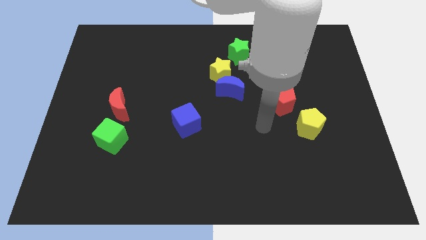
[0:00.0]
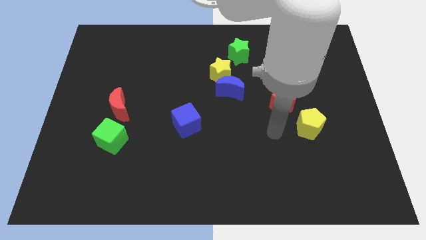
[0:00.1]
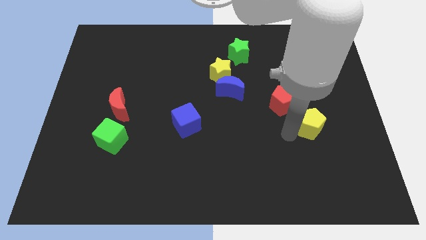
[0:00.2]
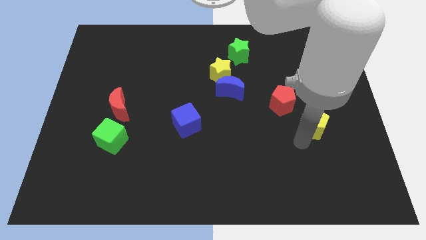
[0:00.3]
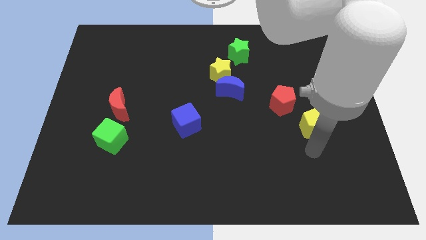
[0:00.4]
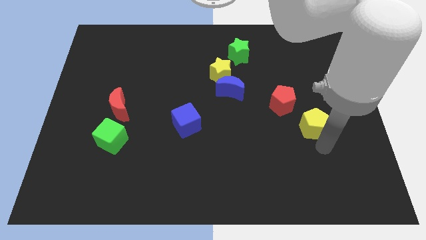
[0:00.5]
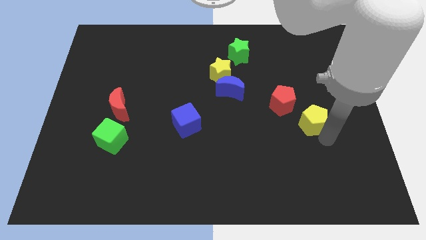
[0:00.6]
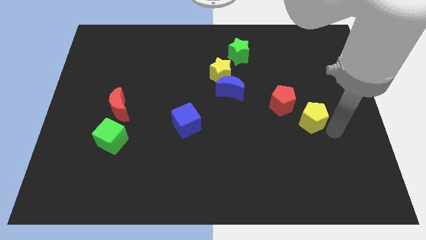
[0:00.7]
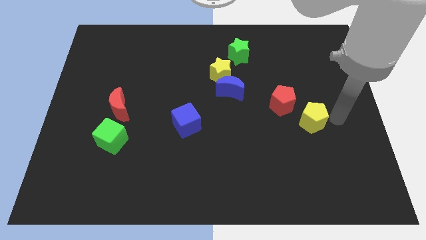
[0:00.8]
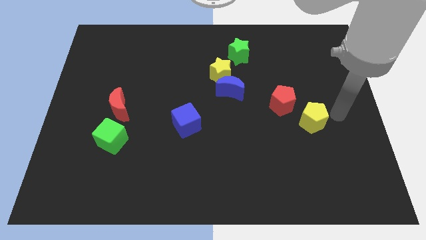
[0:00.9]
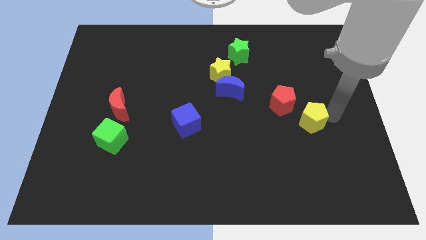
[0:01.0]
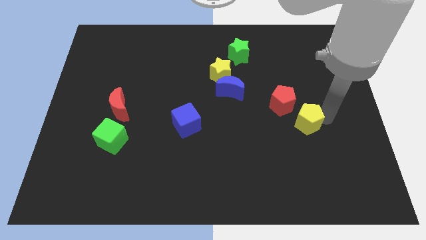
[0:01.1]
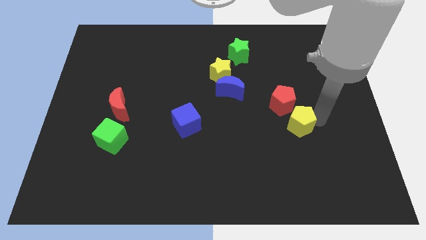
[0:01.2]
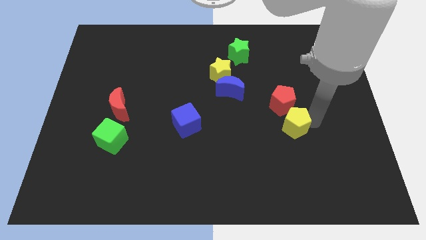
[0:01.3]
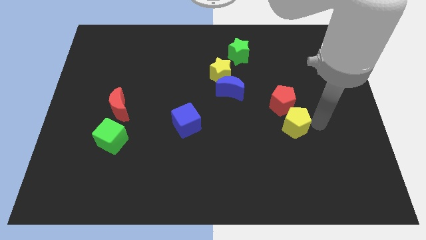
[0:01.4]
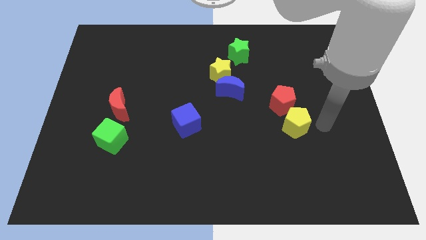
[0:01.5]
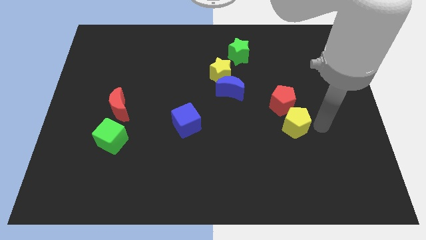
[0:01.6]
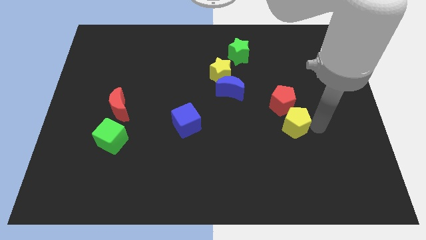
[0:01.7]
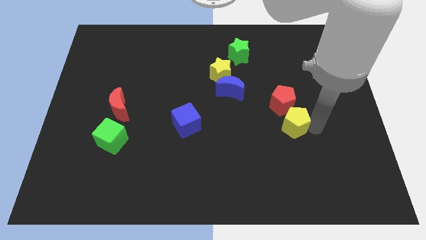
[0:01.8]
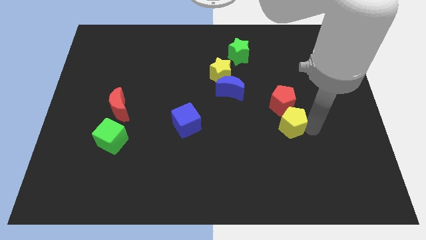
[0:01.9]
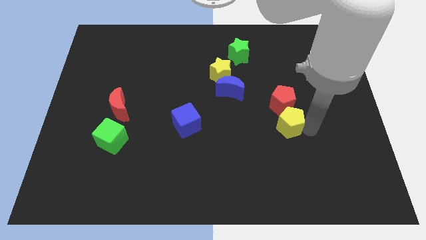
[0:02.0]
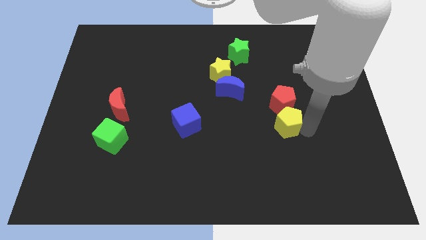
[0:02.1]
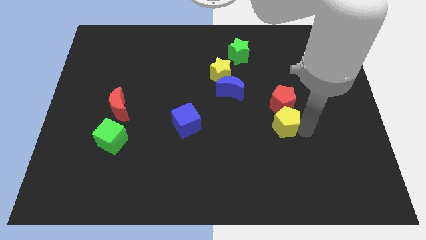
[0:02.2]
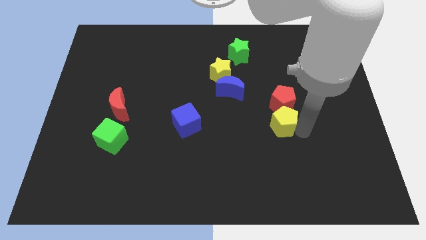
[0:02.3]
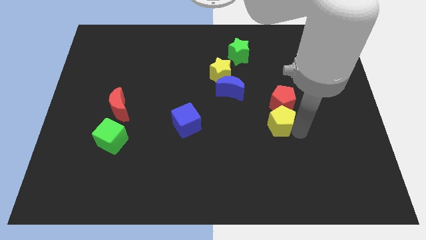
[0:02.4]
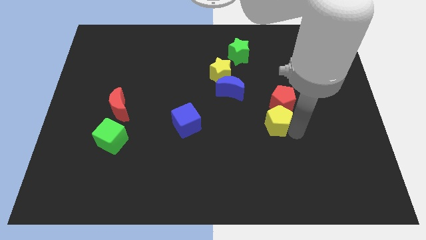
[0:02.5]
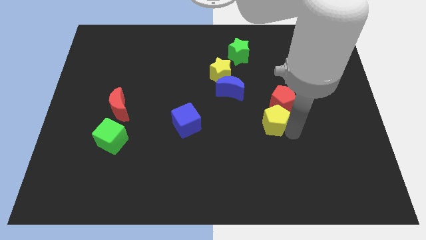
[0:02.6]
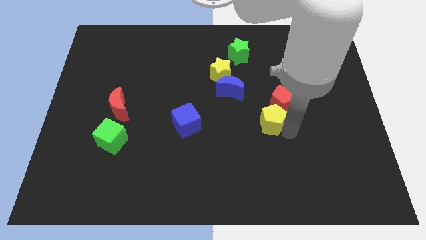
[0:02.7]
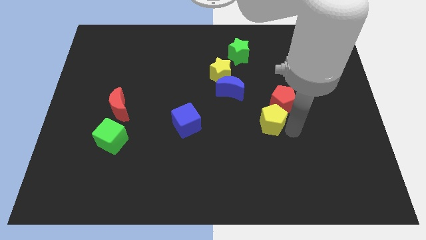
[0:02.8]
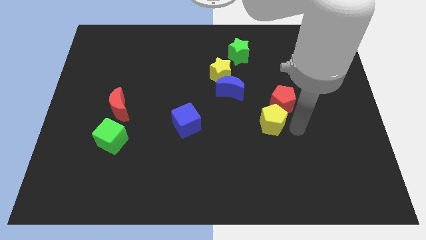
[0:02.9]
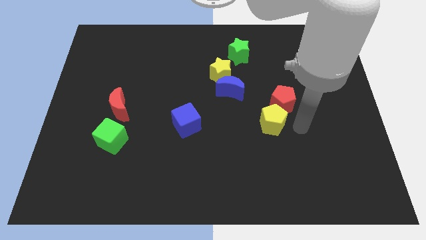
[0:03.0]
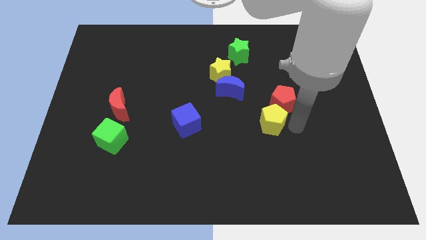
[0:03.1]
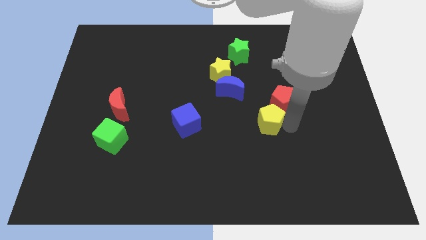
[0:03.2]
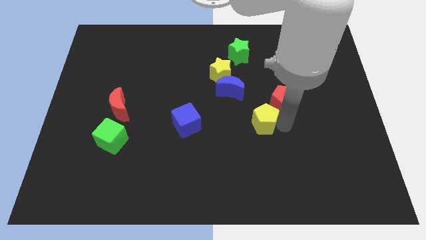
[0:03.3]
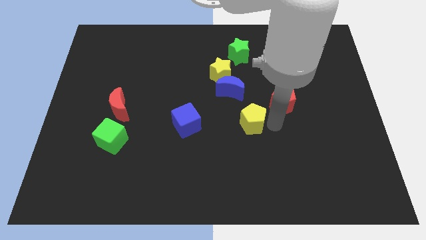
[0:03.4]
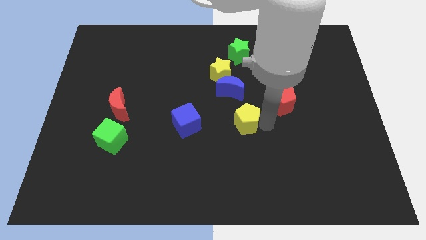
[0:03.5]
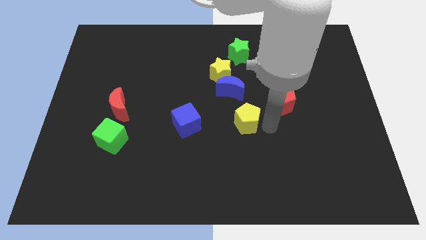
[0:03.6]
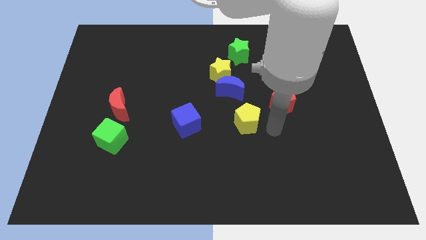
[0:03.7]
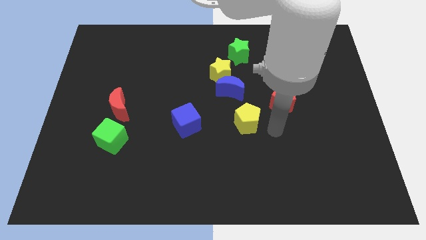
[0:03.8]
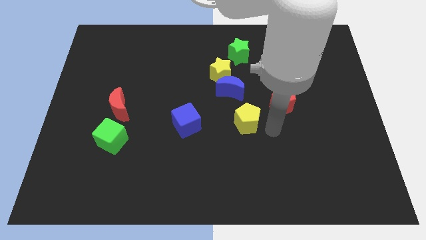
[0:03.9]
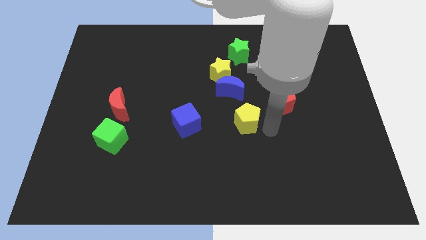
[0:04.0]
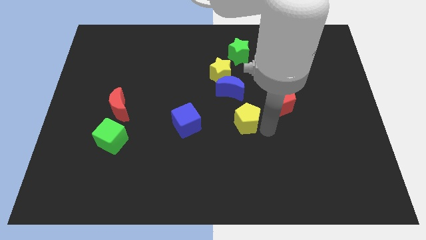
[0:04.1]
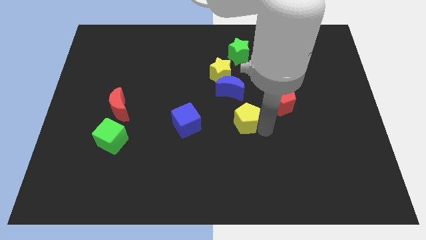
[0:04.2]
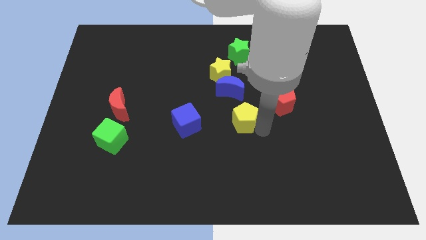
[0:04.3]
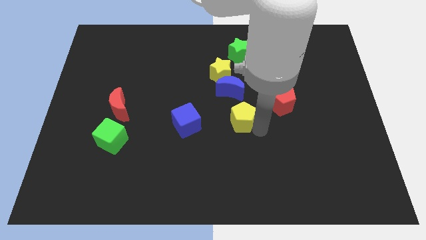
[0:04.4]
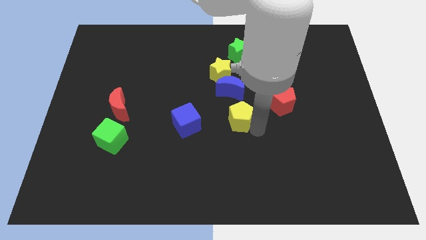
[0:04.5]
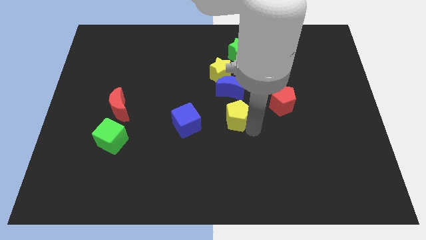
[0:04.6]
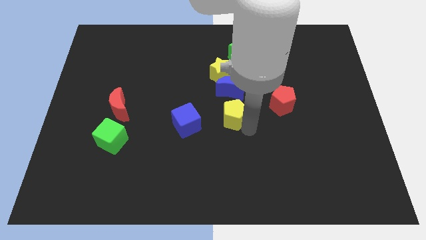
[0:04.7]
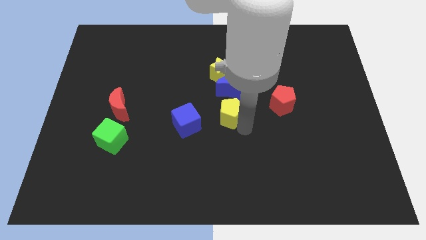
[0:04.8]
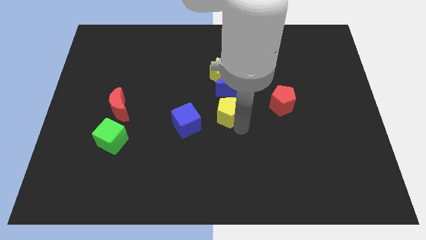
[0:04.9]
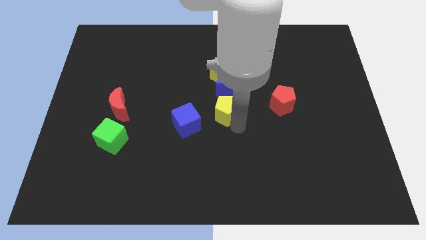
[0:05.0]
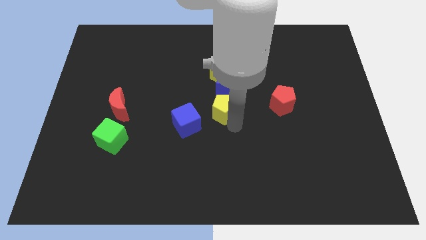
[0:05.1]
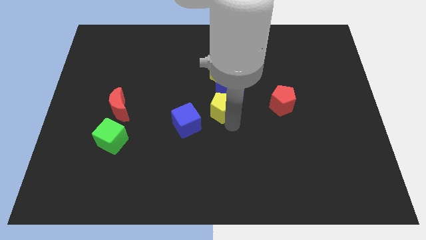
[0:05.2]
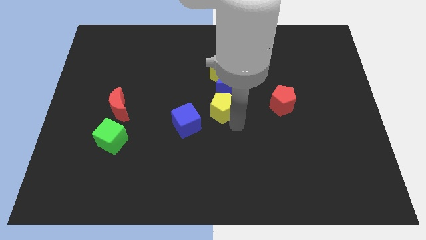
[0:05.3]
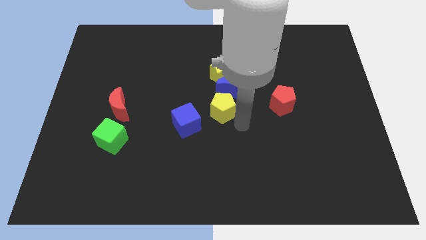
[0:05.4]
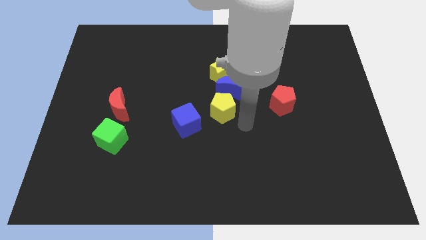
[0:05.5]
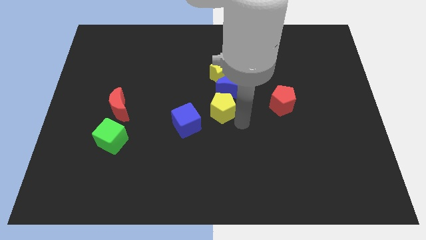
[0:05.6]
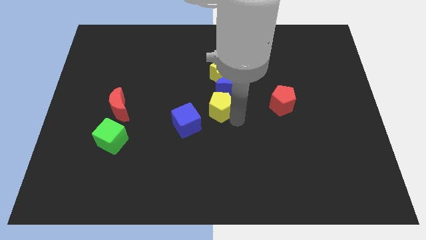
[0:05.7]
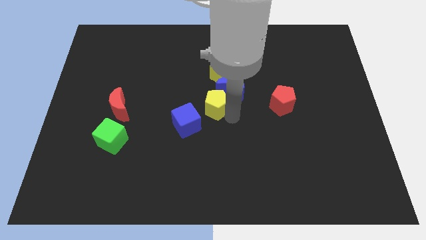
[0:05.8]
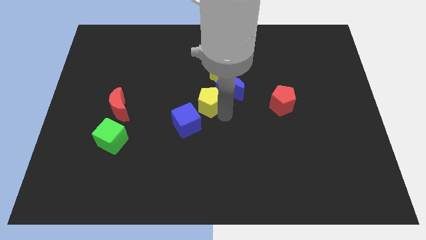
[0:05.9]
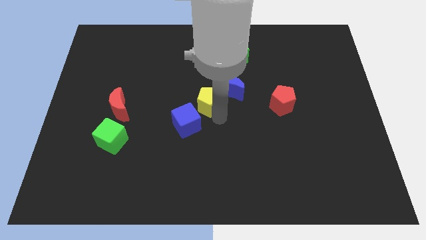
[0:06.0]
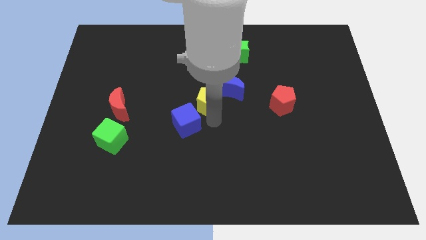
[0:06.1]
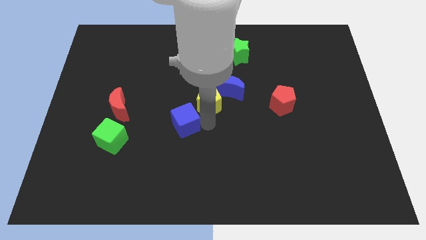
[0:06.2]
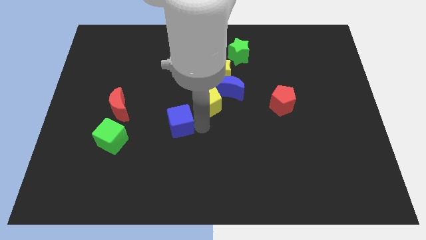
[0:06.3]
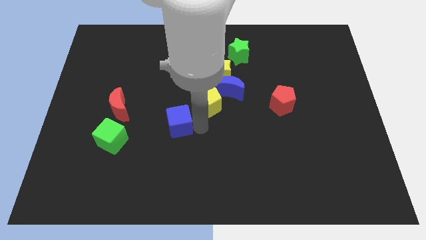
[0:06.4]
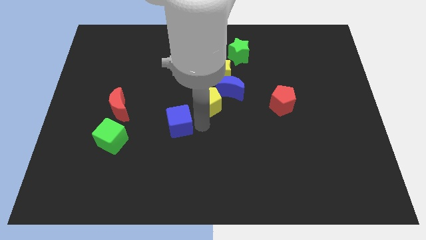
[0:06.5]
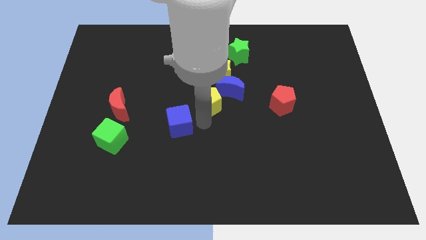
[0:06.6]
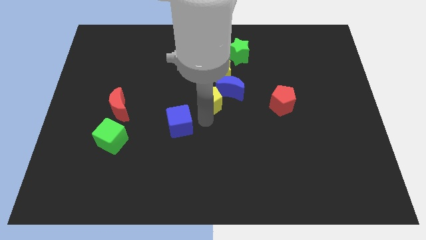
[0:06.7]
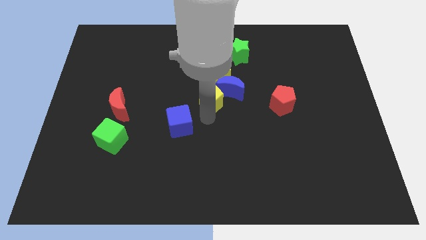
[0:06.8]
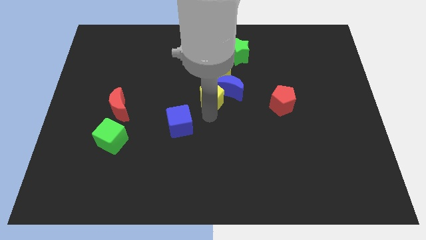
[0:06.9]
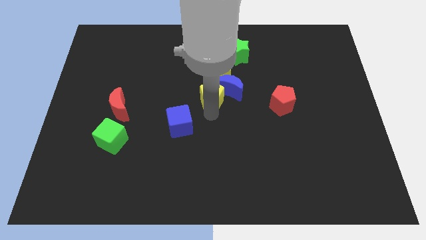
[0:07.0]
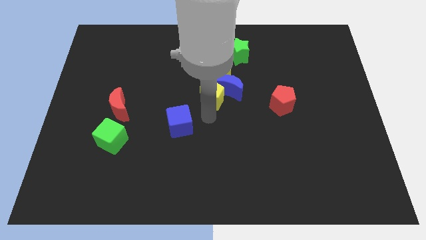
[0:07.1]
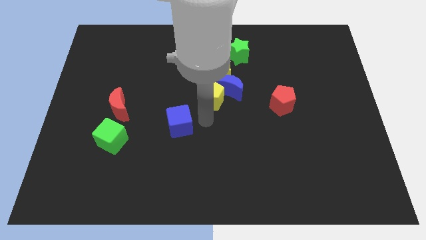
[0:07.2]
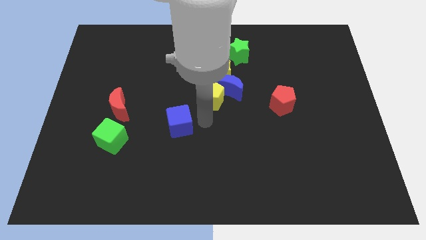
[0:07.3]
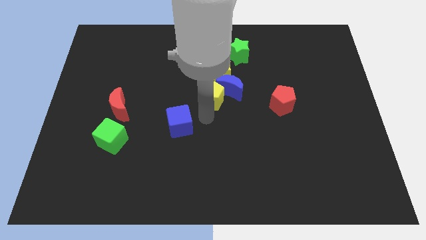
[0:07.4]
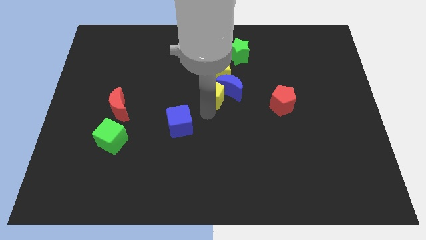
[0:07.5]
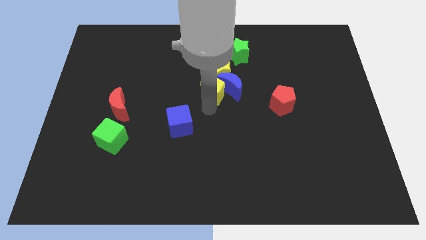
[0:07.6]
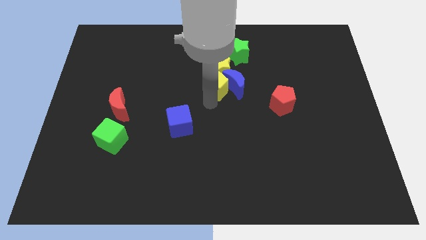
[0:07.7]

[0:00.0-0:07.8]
put the yellow pentagon next to the yellow star
